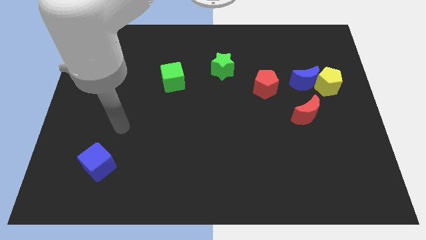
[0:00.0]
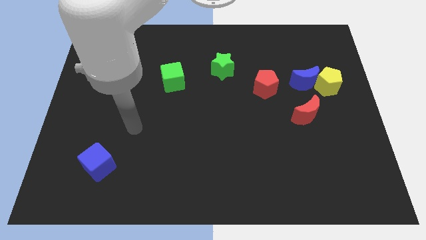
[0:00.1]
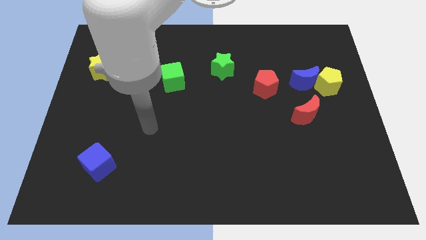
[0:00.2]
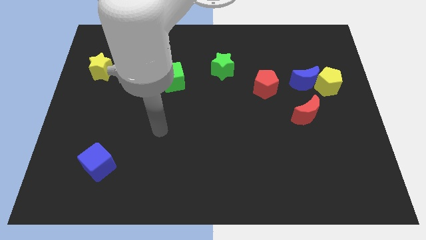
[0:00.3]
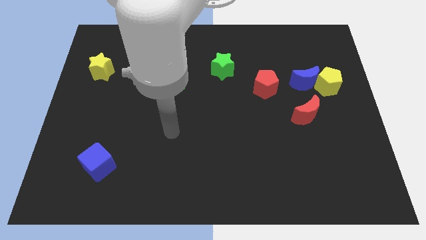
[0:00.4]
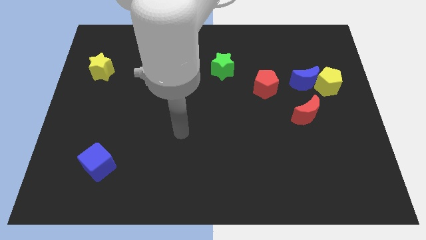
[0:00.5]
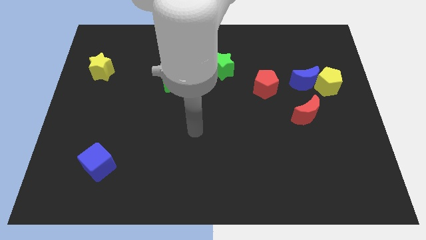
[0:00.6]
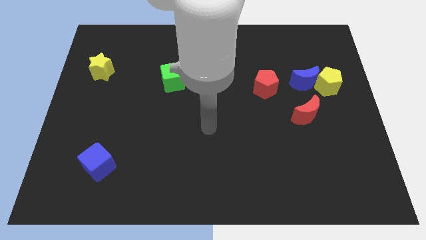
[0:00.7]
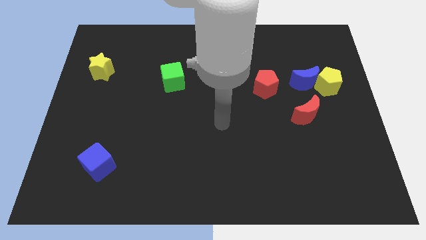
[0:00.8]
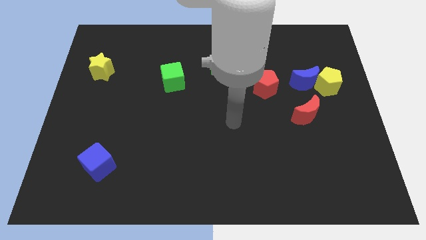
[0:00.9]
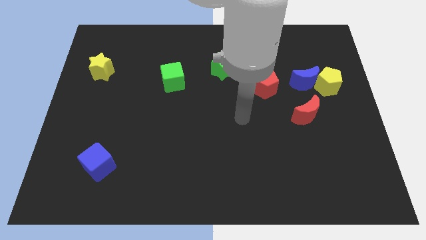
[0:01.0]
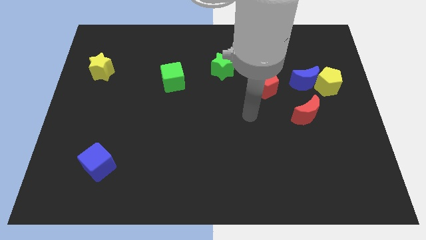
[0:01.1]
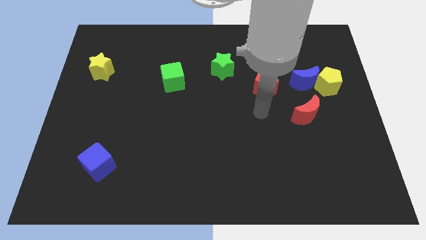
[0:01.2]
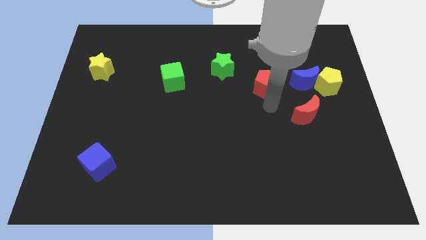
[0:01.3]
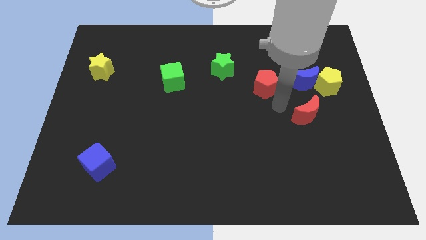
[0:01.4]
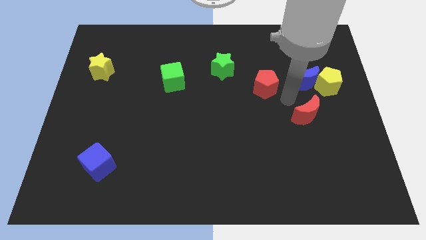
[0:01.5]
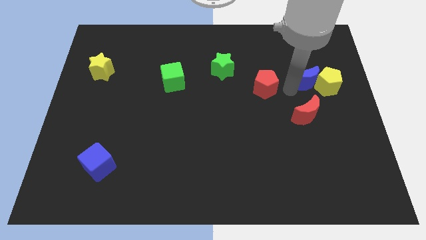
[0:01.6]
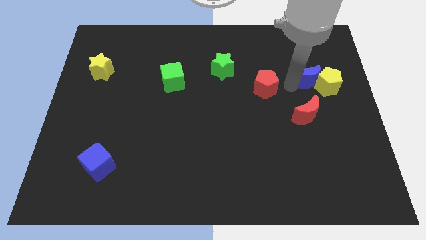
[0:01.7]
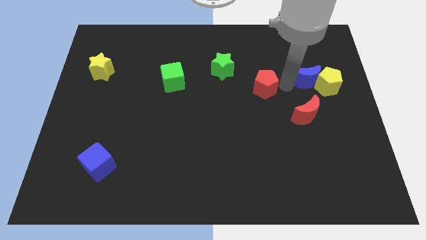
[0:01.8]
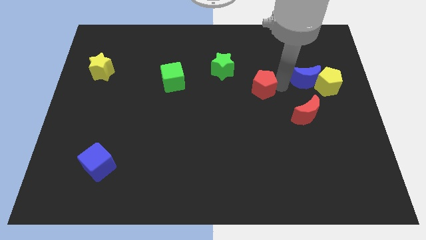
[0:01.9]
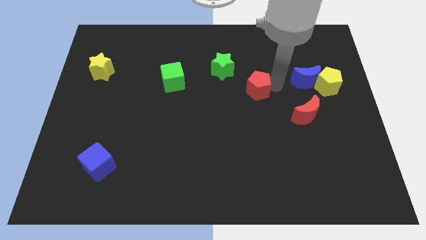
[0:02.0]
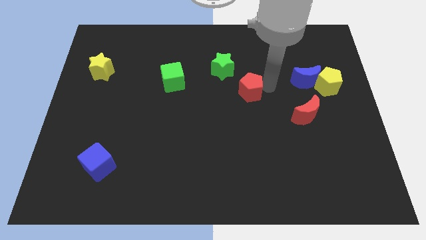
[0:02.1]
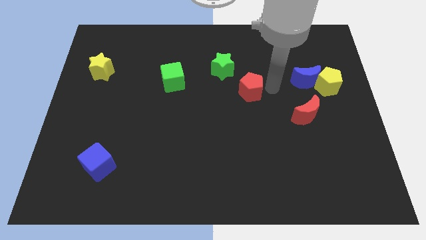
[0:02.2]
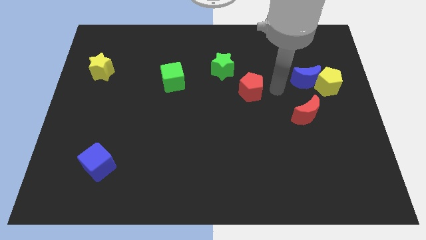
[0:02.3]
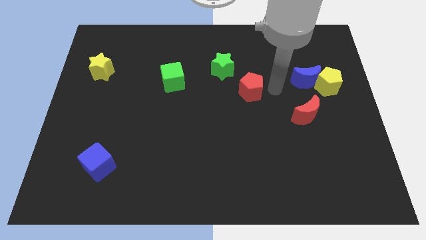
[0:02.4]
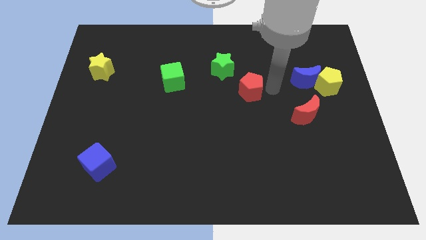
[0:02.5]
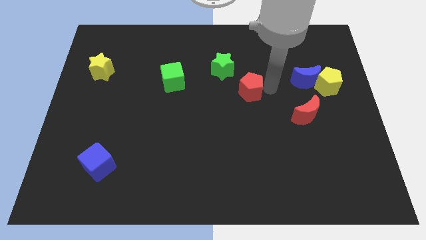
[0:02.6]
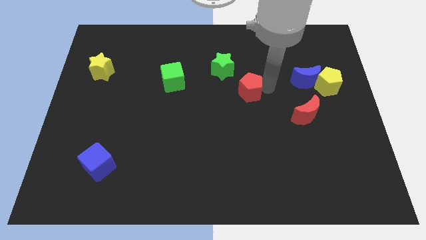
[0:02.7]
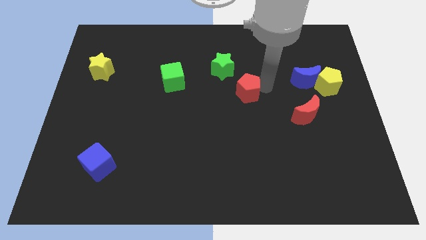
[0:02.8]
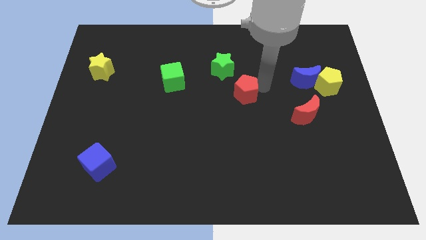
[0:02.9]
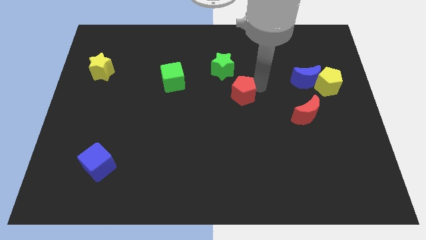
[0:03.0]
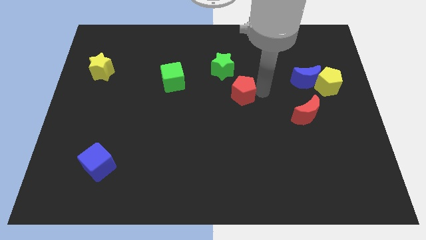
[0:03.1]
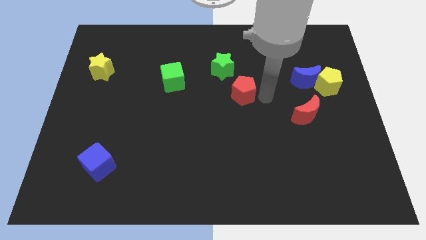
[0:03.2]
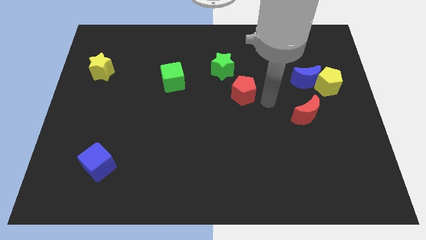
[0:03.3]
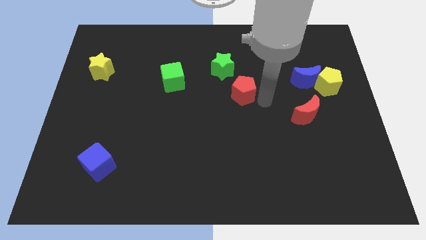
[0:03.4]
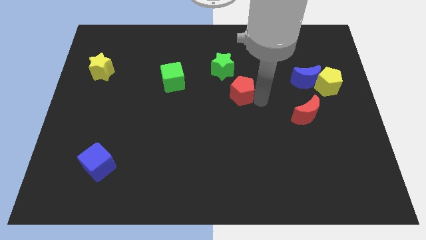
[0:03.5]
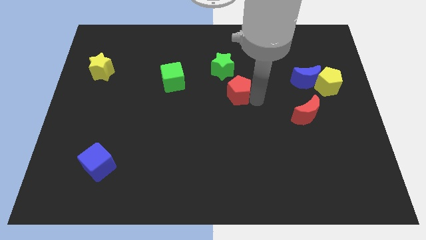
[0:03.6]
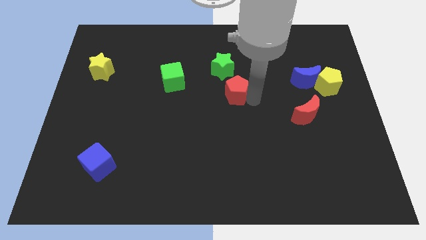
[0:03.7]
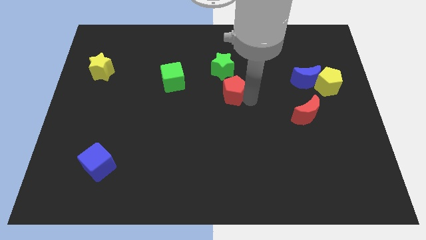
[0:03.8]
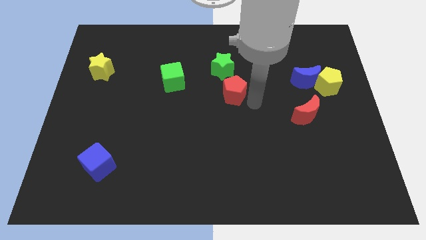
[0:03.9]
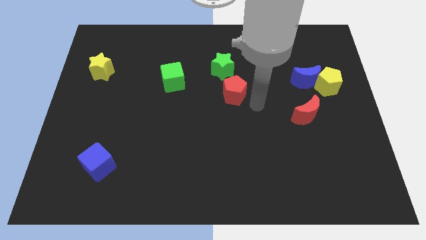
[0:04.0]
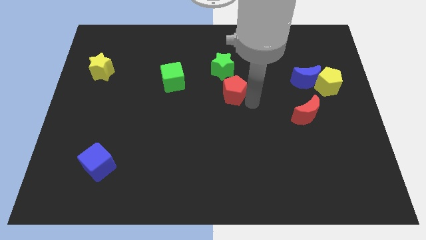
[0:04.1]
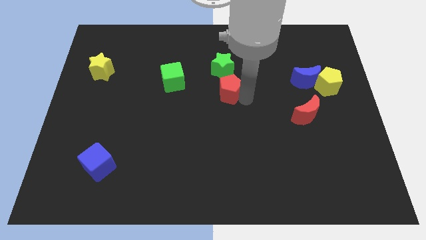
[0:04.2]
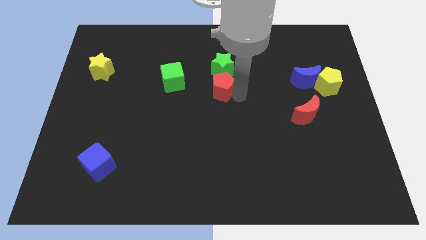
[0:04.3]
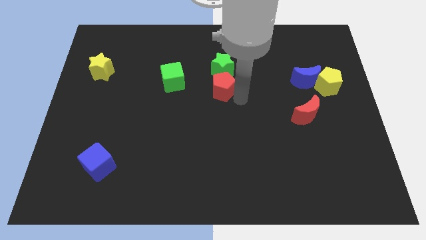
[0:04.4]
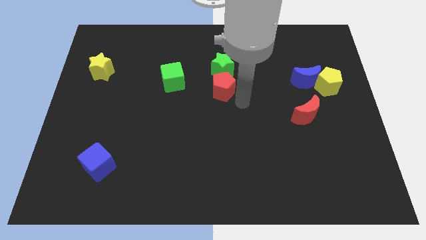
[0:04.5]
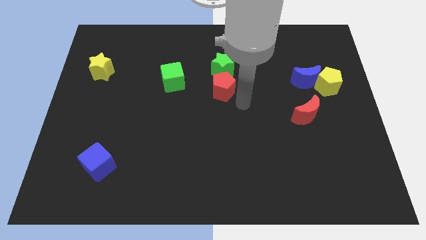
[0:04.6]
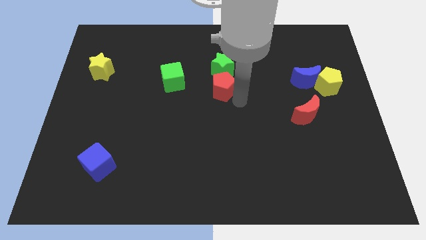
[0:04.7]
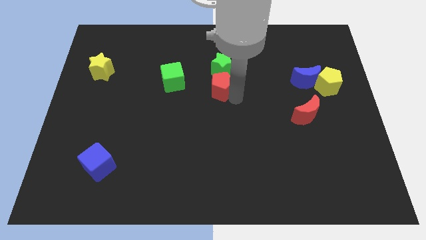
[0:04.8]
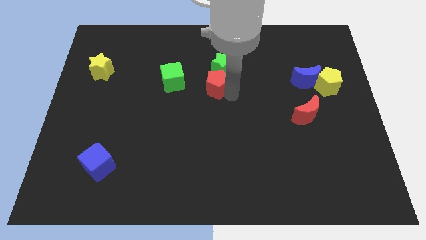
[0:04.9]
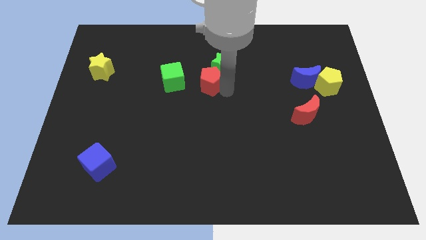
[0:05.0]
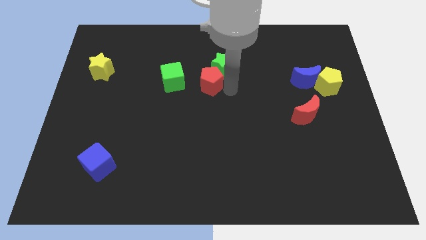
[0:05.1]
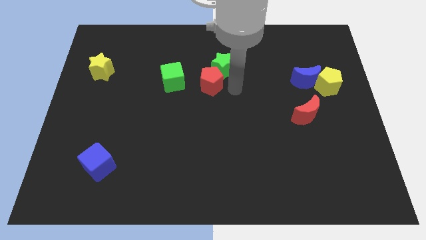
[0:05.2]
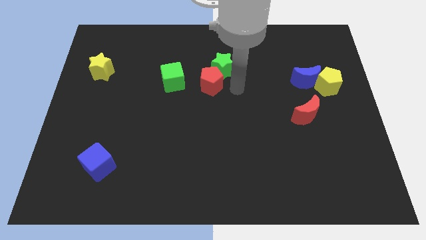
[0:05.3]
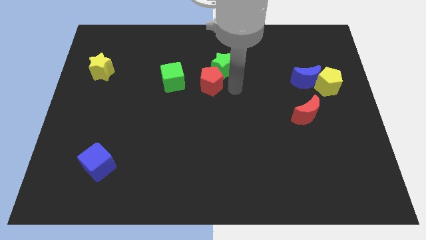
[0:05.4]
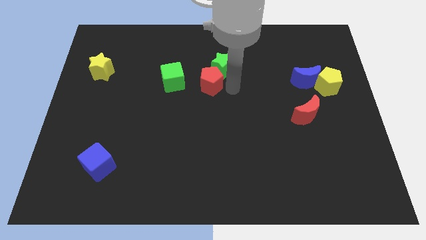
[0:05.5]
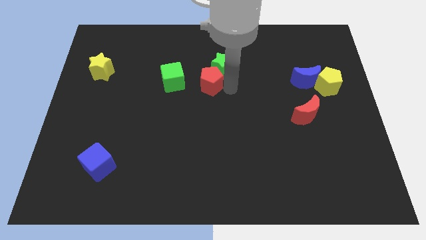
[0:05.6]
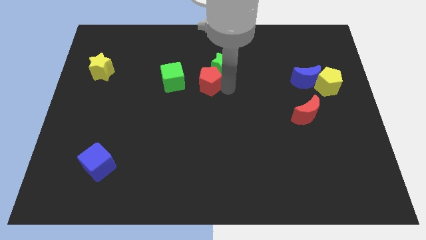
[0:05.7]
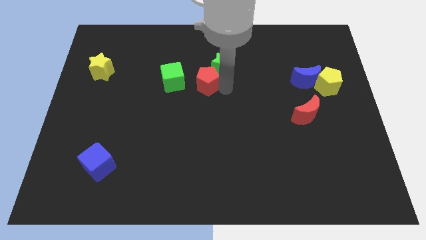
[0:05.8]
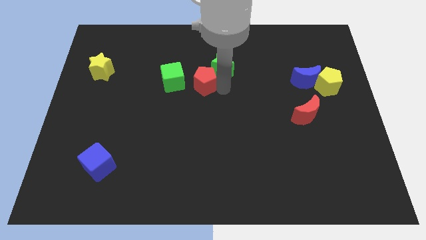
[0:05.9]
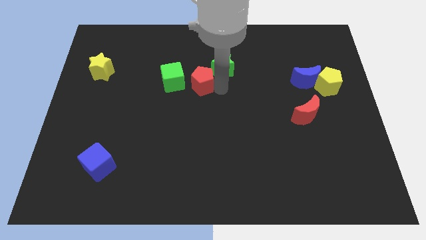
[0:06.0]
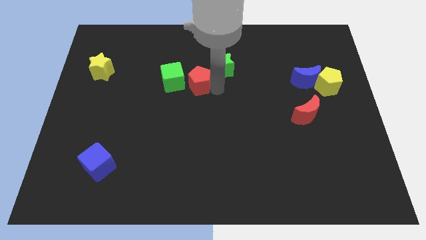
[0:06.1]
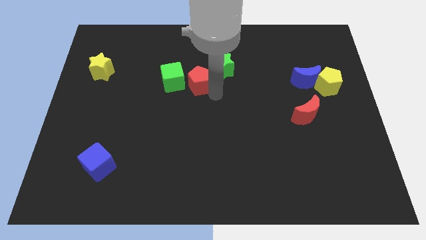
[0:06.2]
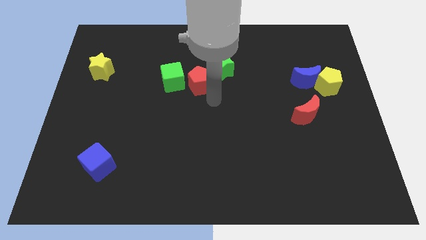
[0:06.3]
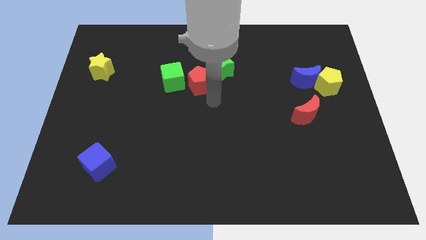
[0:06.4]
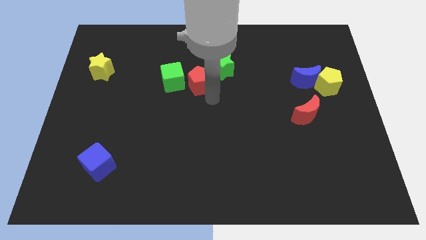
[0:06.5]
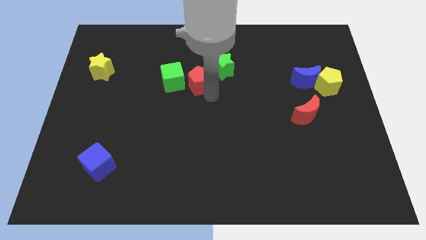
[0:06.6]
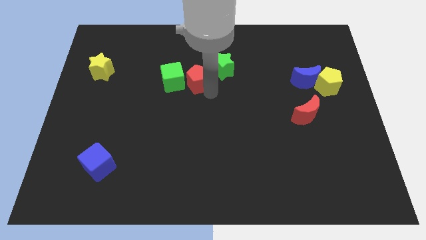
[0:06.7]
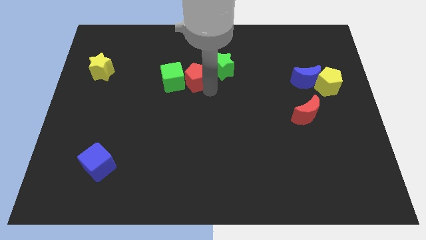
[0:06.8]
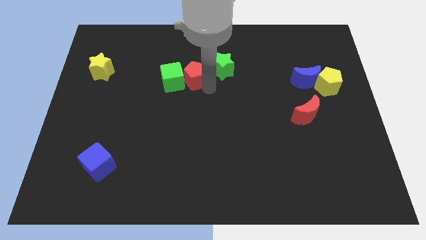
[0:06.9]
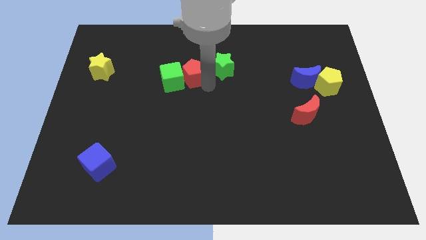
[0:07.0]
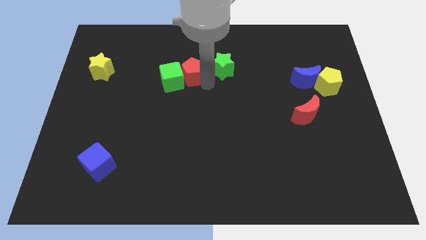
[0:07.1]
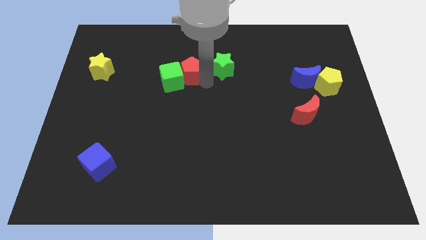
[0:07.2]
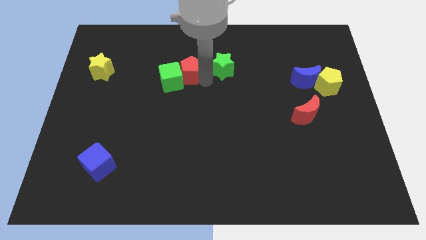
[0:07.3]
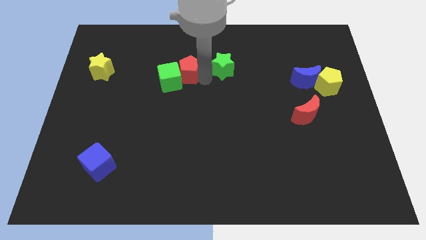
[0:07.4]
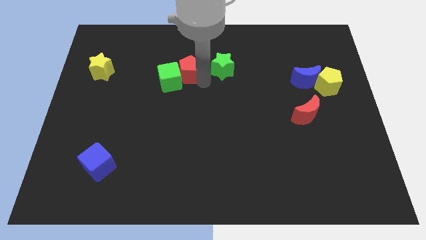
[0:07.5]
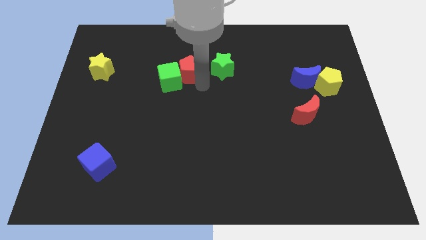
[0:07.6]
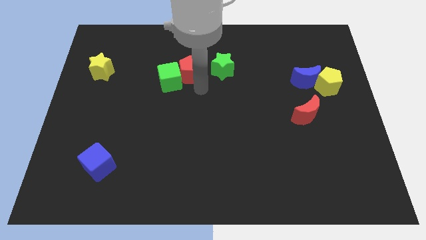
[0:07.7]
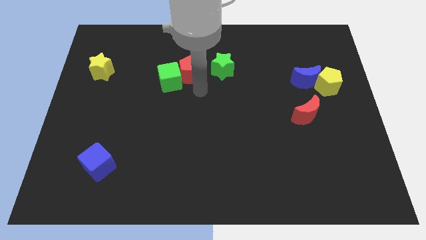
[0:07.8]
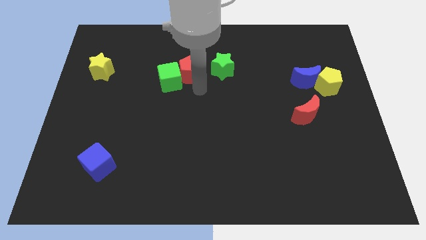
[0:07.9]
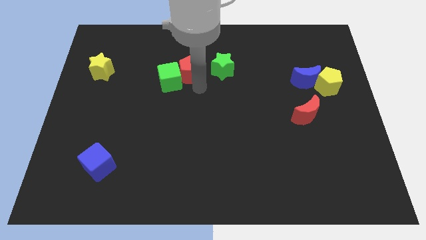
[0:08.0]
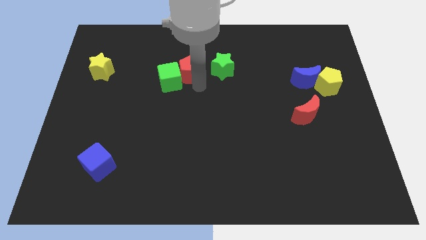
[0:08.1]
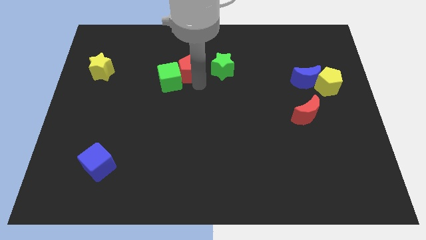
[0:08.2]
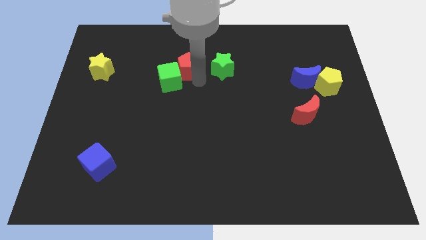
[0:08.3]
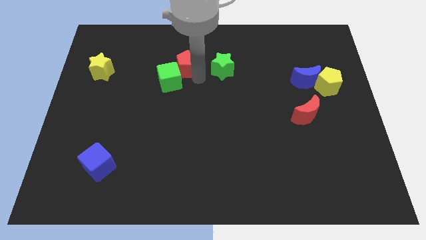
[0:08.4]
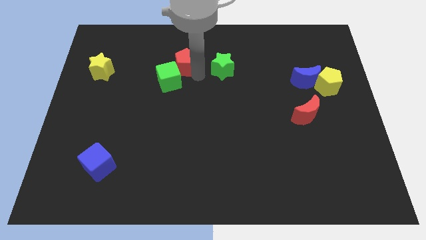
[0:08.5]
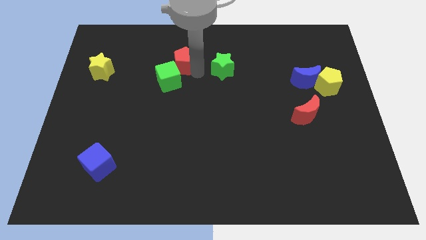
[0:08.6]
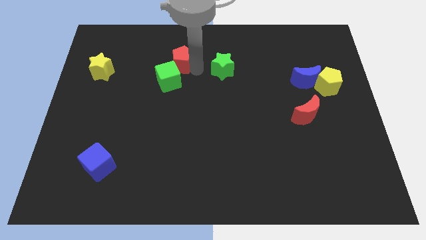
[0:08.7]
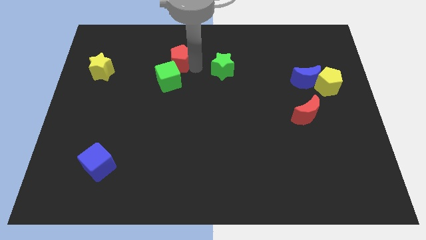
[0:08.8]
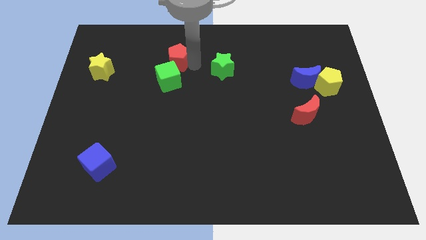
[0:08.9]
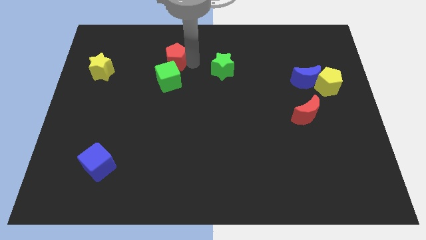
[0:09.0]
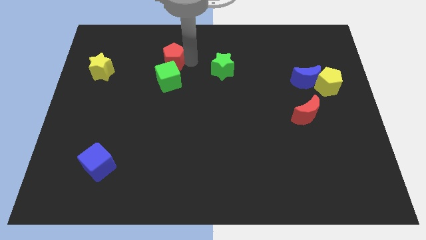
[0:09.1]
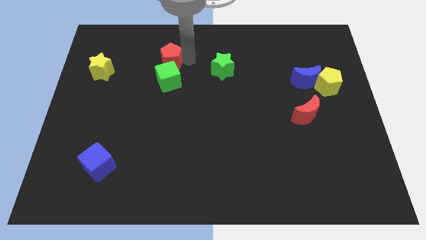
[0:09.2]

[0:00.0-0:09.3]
slide the red pentagon to the top left of the green cube
